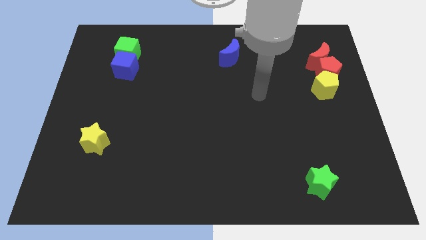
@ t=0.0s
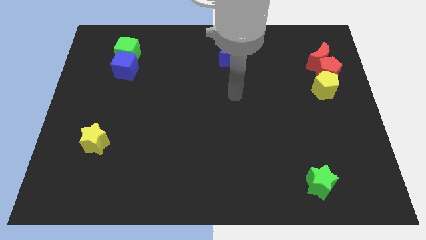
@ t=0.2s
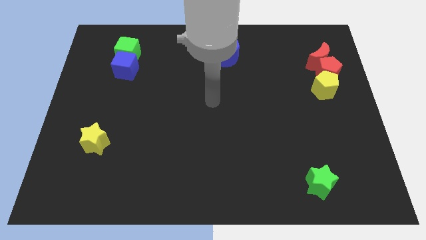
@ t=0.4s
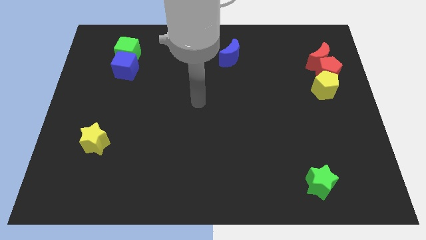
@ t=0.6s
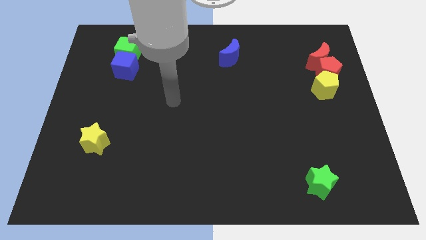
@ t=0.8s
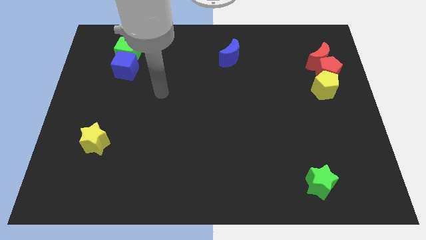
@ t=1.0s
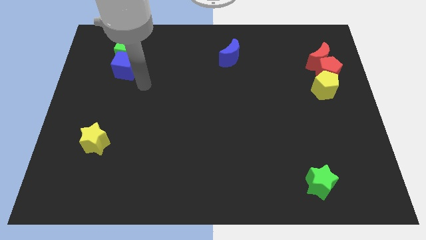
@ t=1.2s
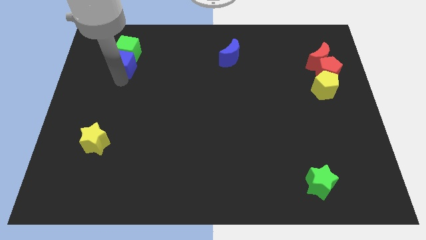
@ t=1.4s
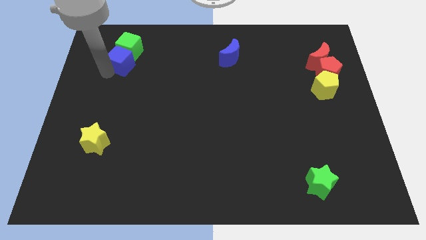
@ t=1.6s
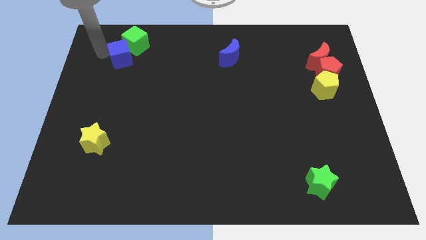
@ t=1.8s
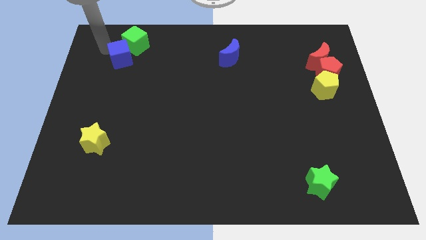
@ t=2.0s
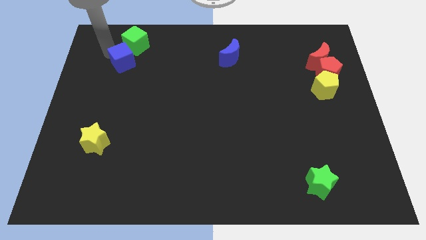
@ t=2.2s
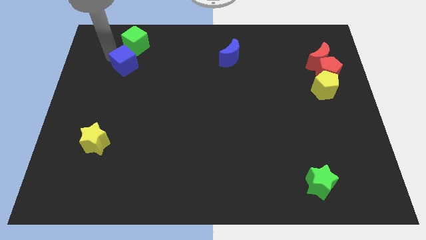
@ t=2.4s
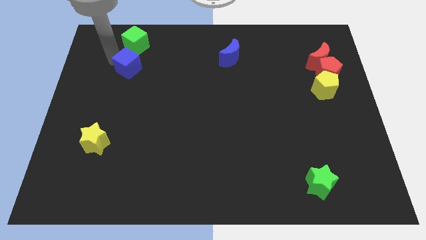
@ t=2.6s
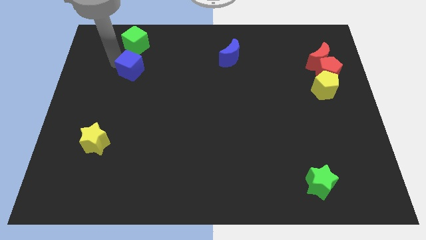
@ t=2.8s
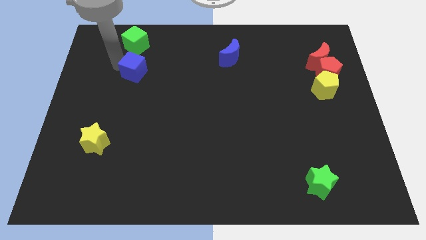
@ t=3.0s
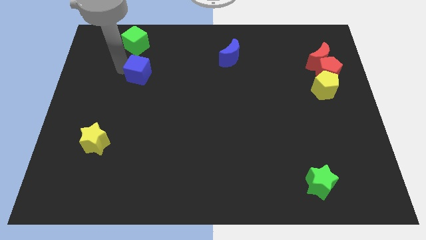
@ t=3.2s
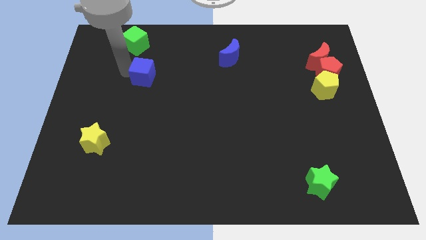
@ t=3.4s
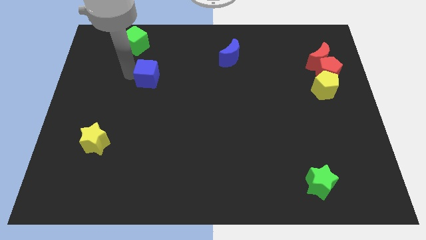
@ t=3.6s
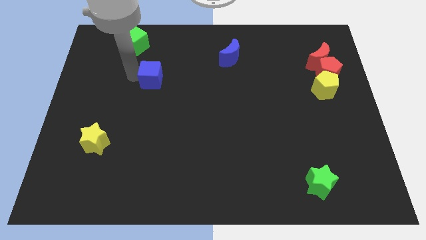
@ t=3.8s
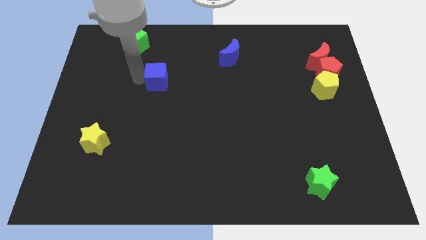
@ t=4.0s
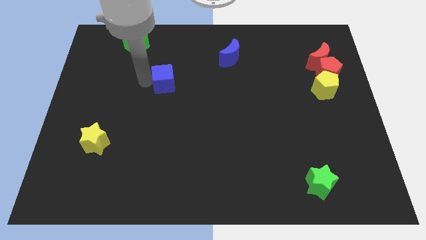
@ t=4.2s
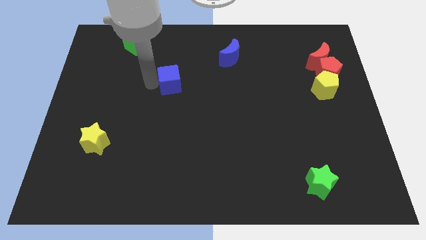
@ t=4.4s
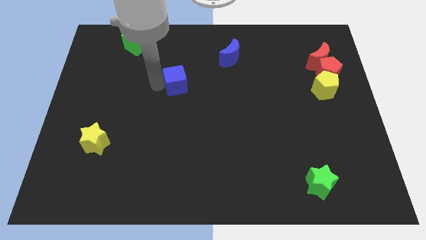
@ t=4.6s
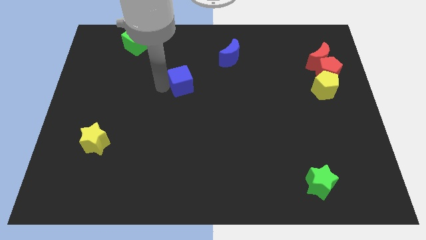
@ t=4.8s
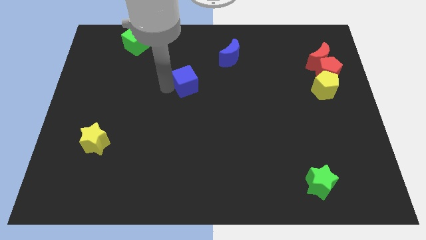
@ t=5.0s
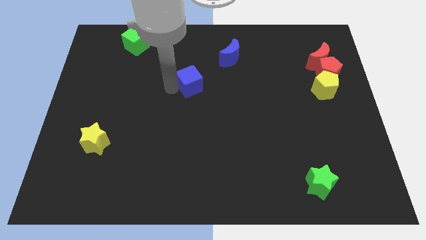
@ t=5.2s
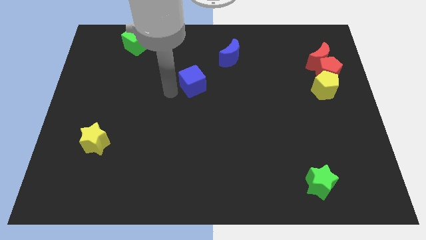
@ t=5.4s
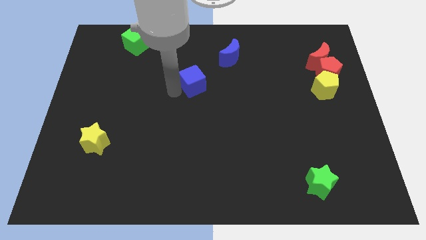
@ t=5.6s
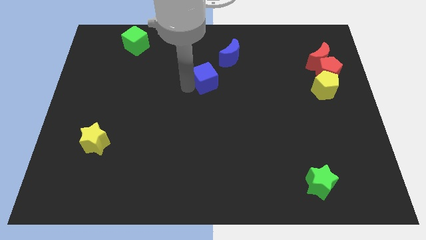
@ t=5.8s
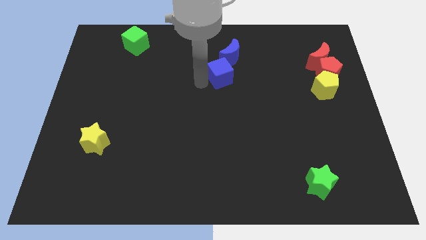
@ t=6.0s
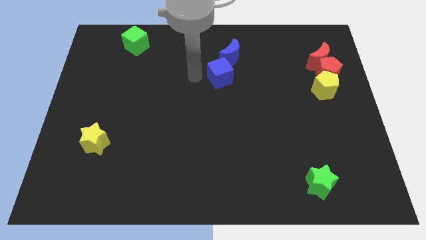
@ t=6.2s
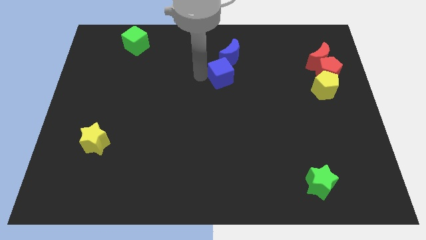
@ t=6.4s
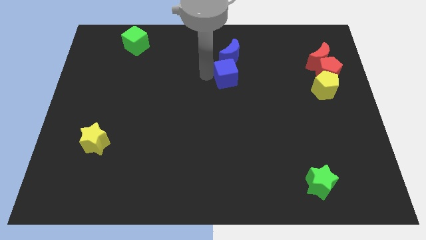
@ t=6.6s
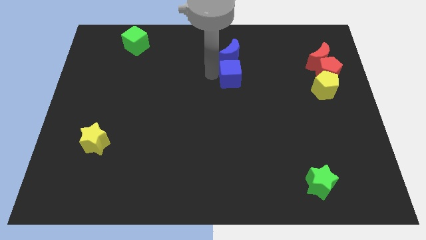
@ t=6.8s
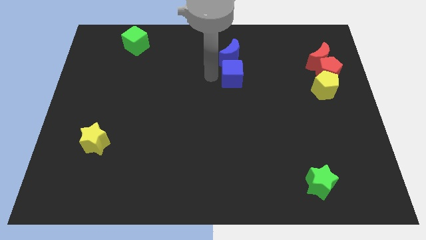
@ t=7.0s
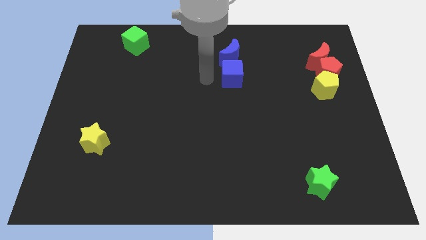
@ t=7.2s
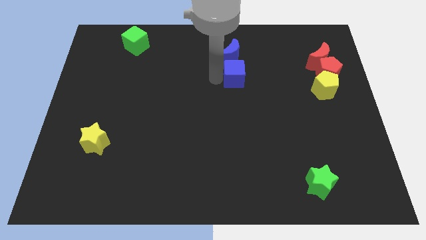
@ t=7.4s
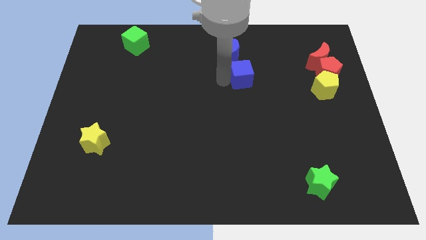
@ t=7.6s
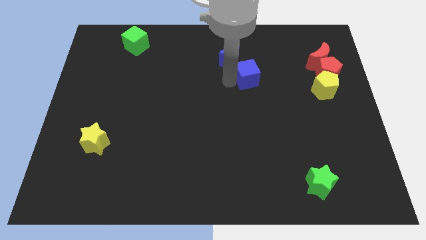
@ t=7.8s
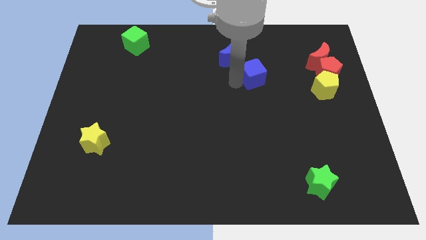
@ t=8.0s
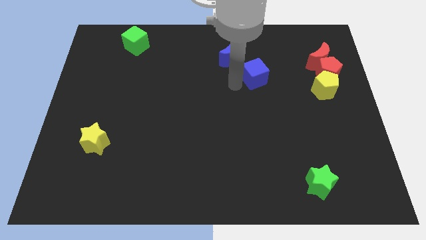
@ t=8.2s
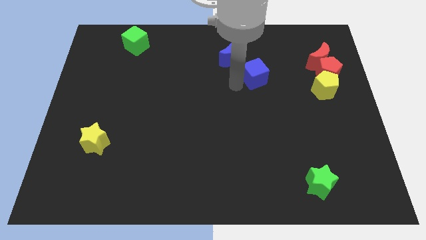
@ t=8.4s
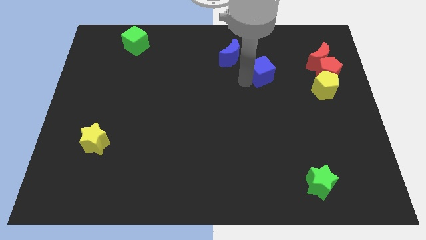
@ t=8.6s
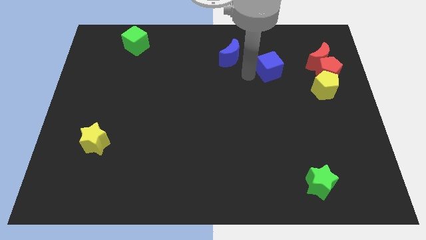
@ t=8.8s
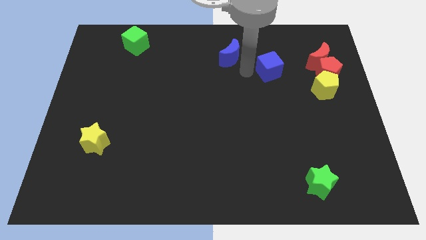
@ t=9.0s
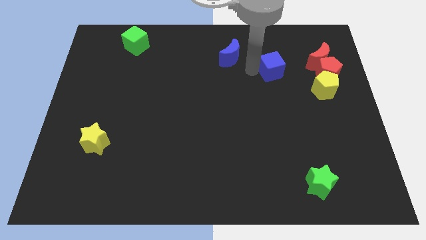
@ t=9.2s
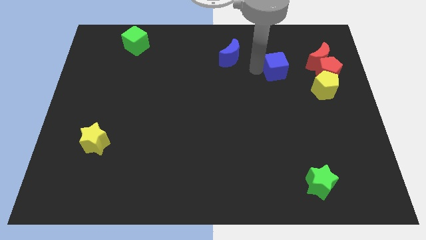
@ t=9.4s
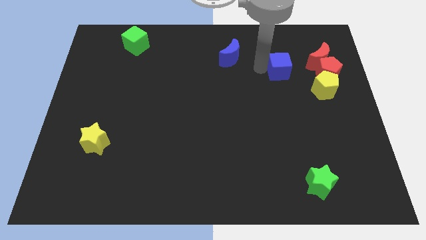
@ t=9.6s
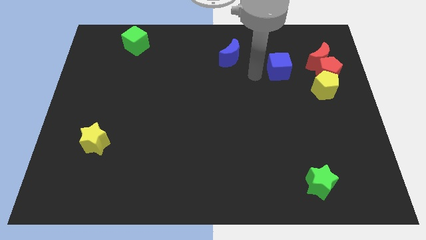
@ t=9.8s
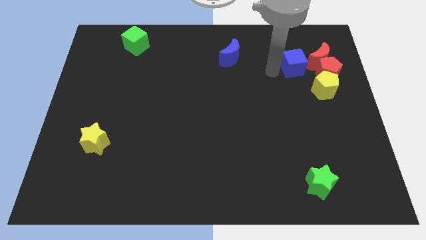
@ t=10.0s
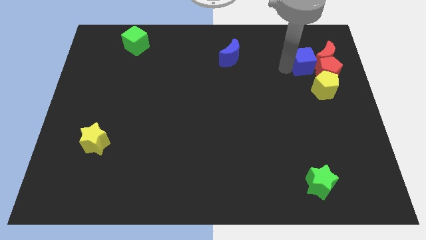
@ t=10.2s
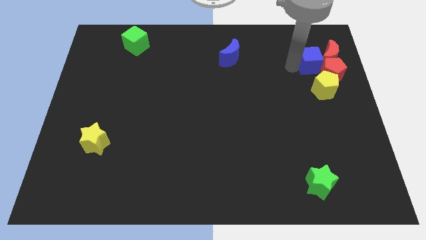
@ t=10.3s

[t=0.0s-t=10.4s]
put the blue cube towards the red moon

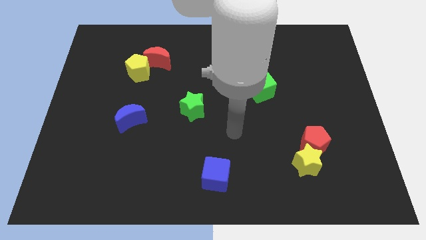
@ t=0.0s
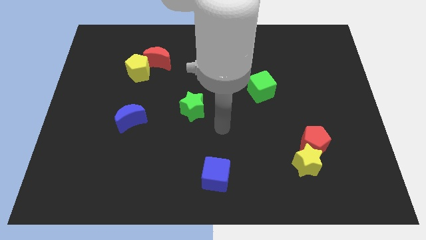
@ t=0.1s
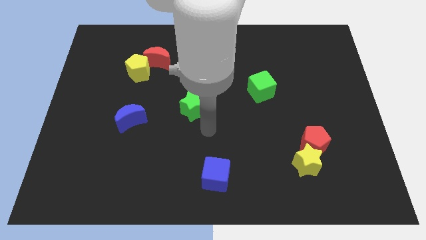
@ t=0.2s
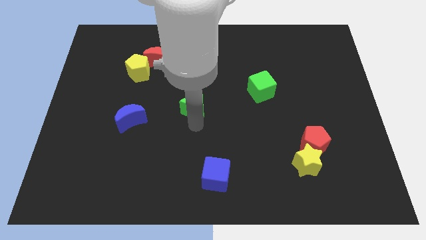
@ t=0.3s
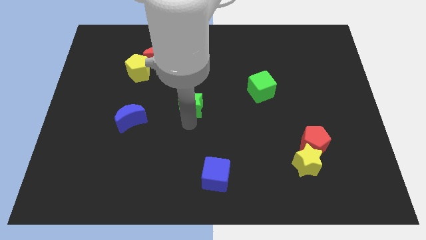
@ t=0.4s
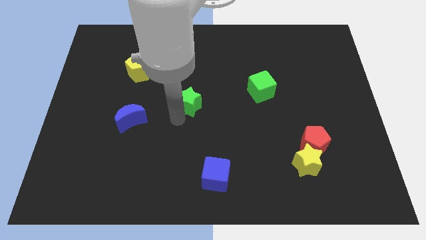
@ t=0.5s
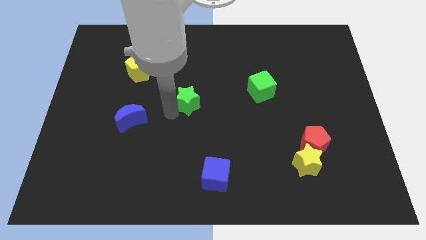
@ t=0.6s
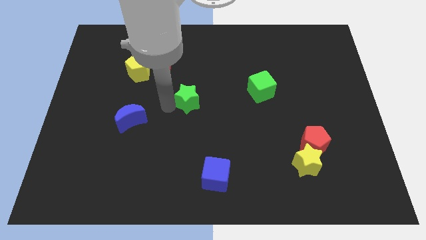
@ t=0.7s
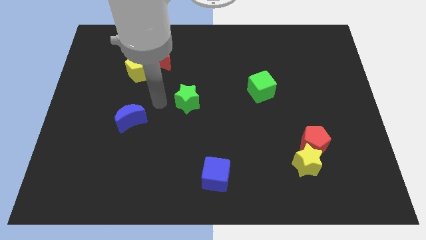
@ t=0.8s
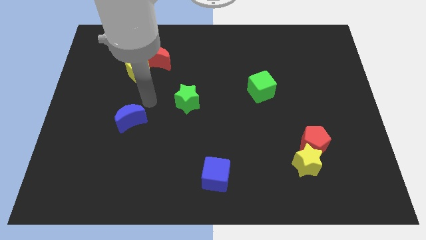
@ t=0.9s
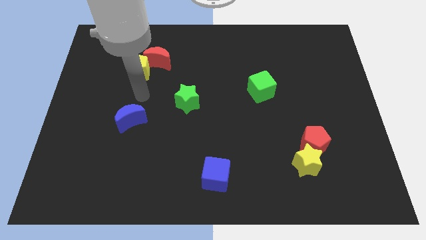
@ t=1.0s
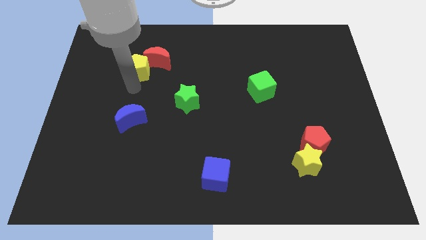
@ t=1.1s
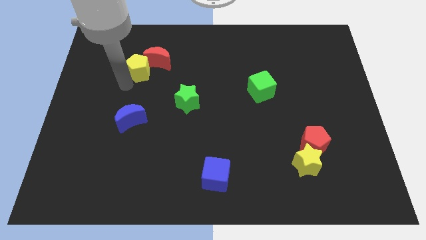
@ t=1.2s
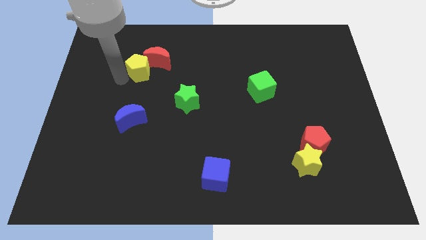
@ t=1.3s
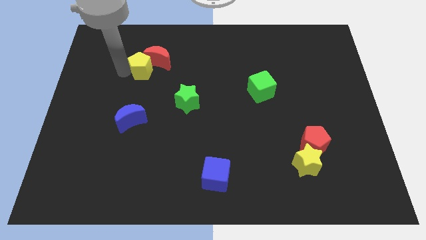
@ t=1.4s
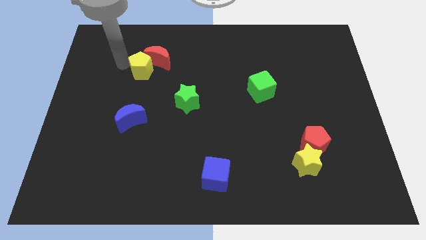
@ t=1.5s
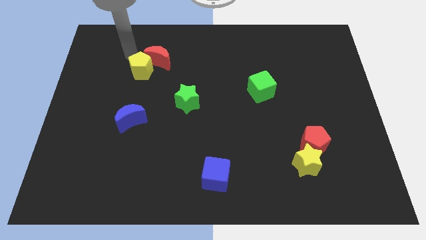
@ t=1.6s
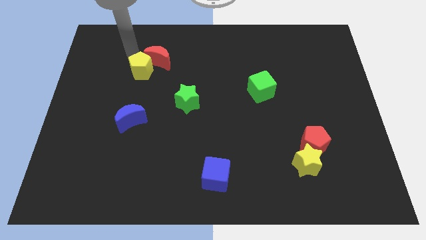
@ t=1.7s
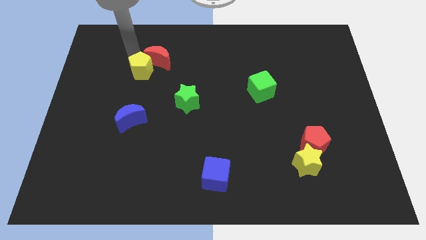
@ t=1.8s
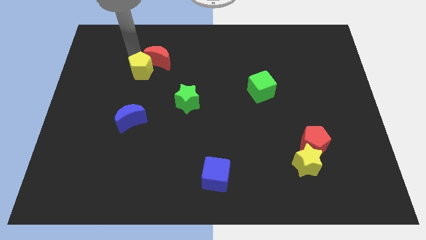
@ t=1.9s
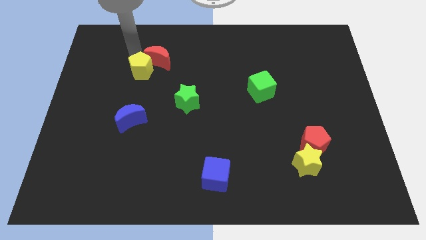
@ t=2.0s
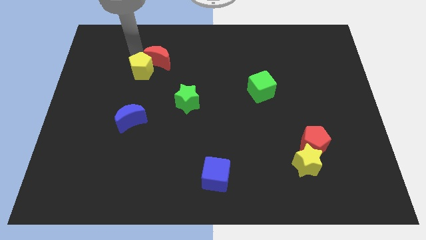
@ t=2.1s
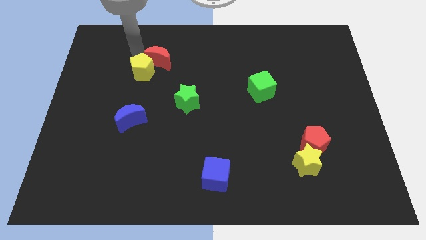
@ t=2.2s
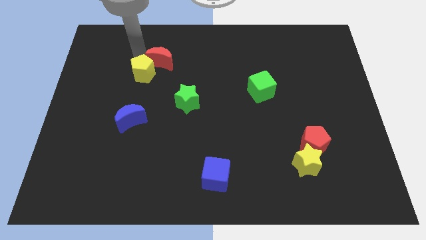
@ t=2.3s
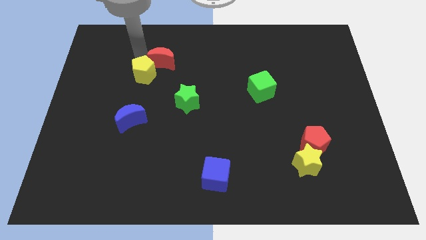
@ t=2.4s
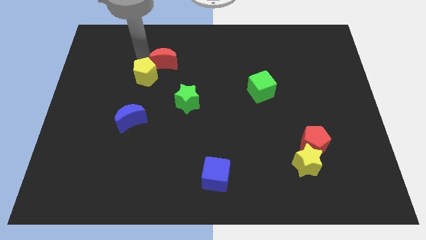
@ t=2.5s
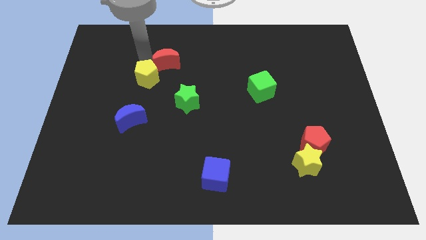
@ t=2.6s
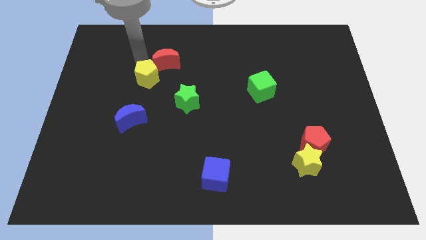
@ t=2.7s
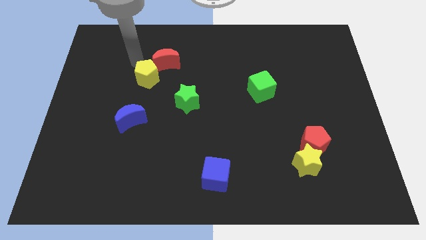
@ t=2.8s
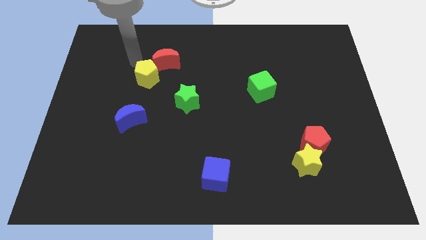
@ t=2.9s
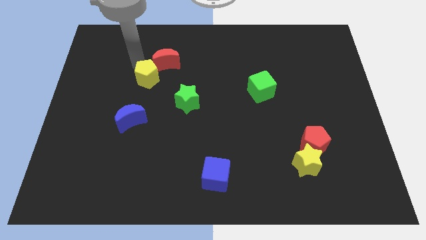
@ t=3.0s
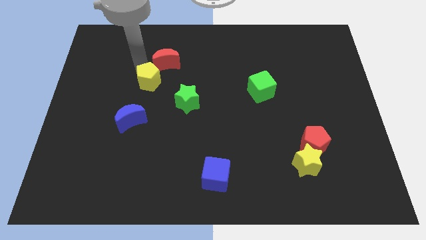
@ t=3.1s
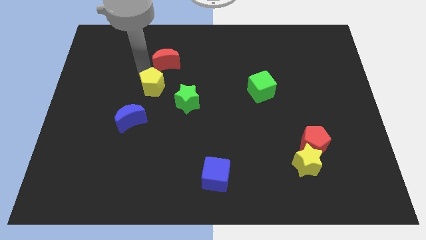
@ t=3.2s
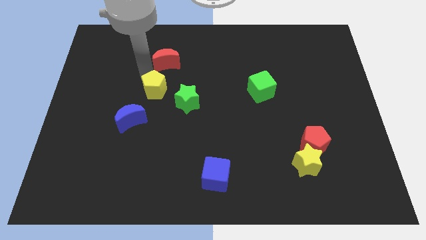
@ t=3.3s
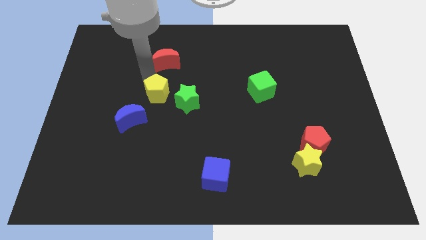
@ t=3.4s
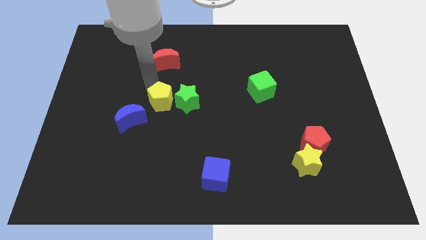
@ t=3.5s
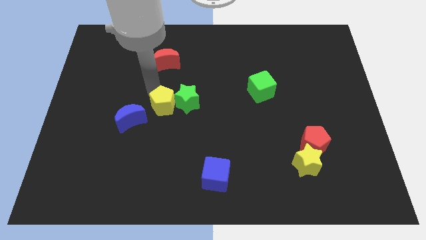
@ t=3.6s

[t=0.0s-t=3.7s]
push the yellow pentagon towards the green star
